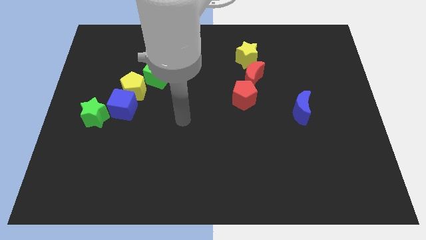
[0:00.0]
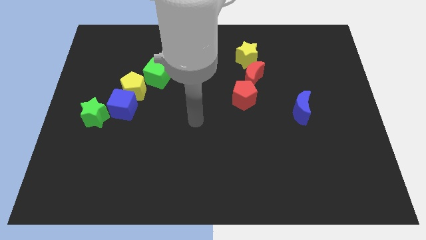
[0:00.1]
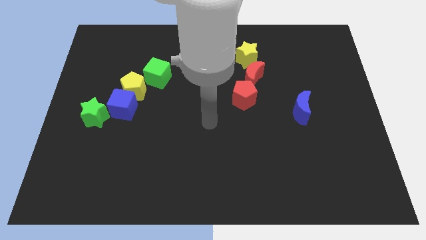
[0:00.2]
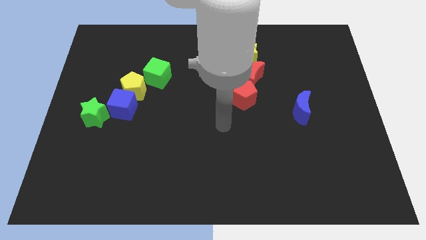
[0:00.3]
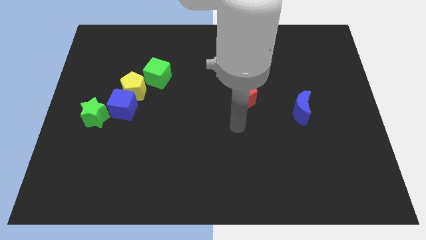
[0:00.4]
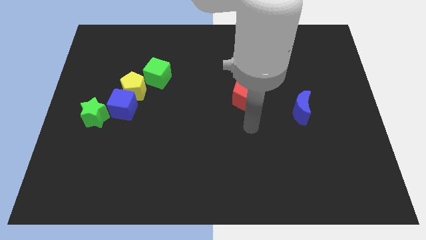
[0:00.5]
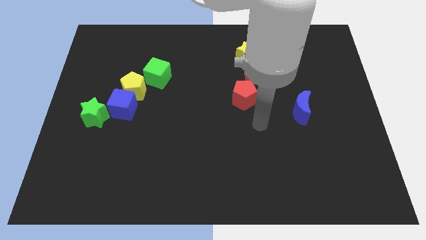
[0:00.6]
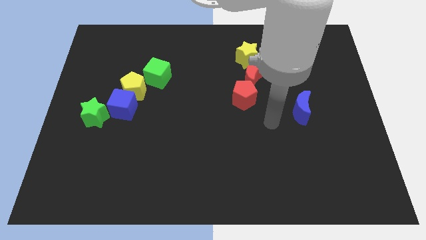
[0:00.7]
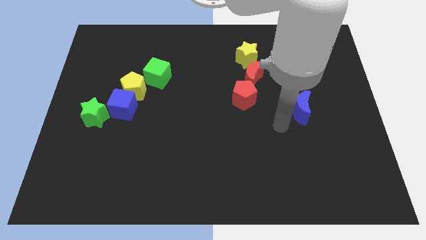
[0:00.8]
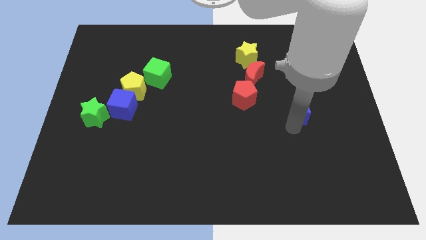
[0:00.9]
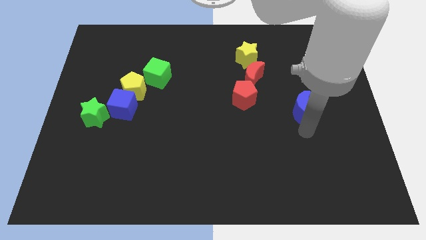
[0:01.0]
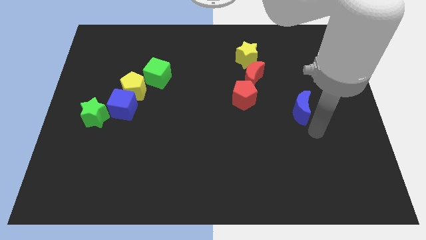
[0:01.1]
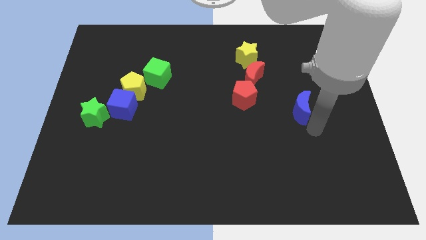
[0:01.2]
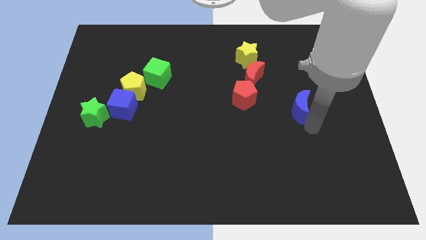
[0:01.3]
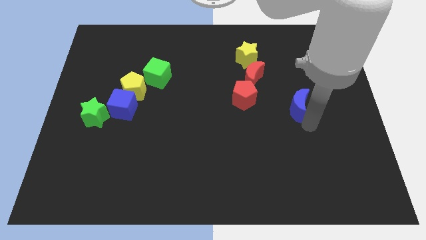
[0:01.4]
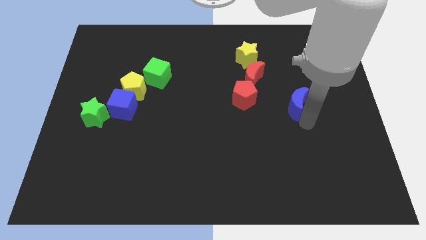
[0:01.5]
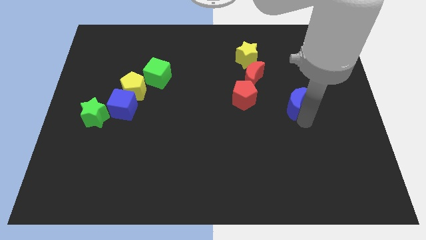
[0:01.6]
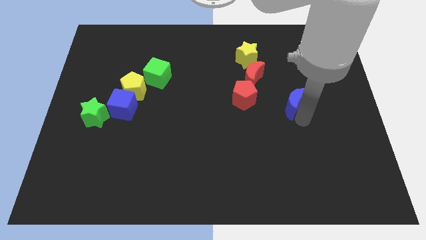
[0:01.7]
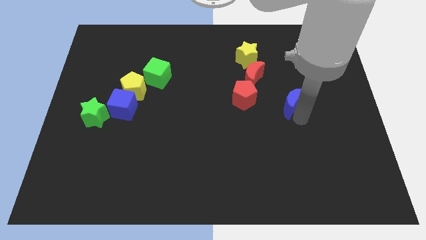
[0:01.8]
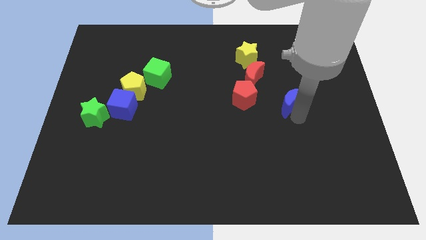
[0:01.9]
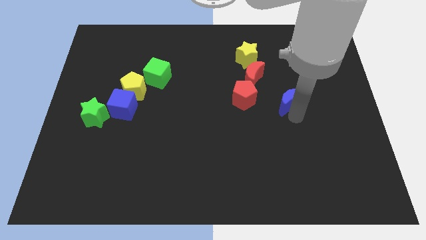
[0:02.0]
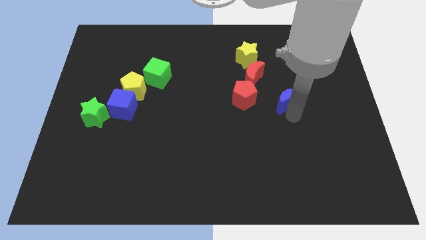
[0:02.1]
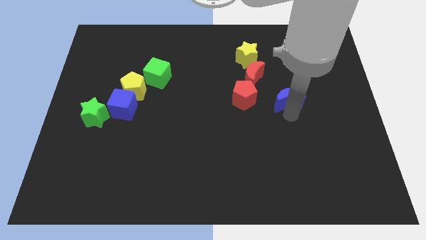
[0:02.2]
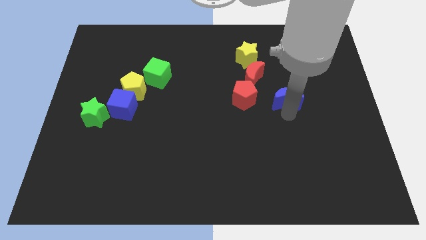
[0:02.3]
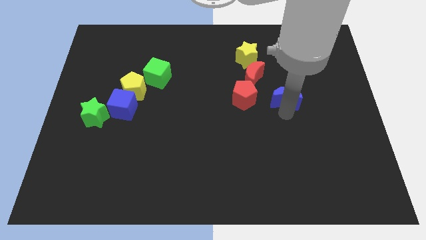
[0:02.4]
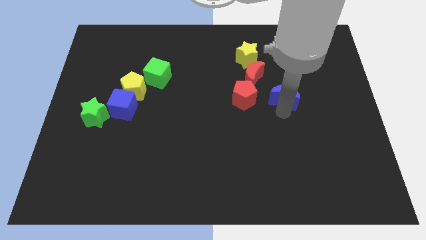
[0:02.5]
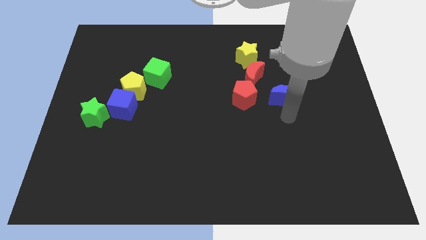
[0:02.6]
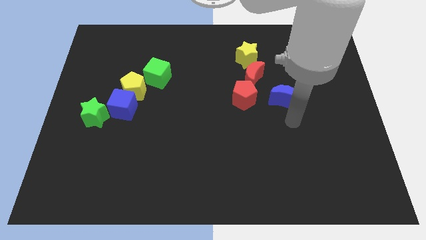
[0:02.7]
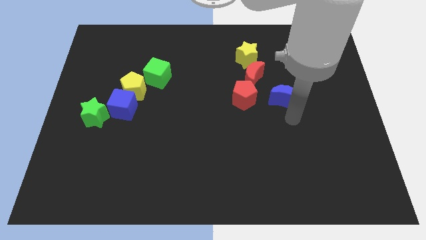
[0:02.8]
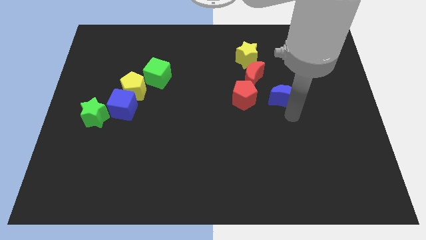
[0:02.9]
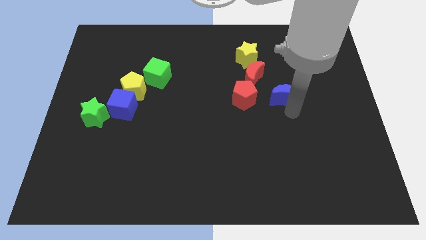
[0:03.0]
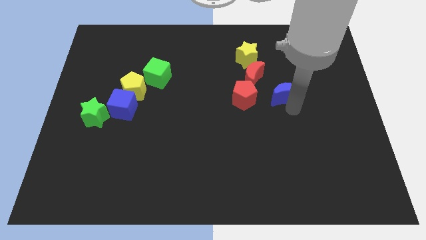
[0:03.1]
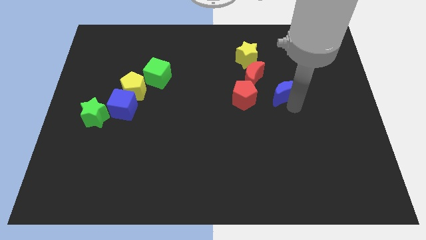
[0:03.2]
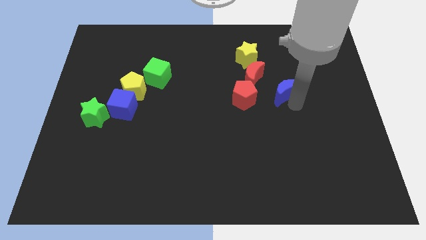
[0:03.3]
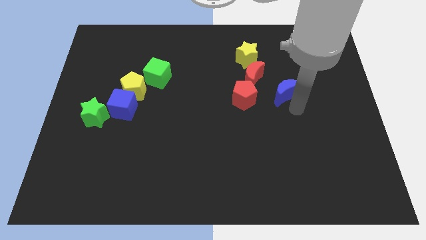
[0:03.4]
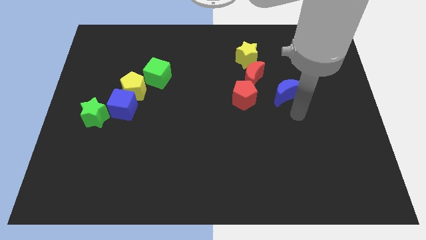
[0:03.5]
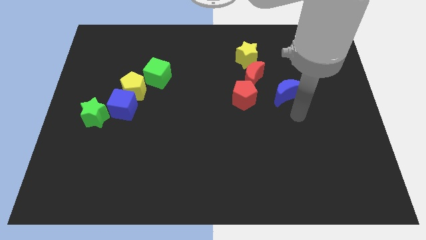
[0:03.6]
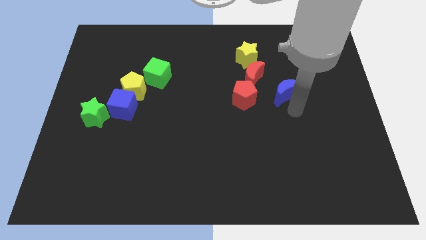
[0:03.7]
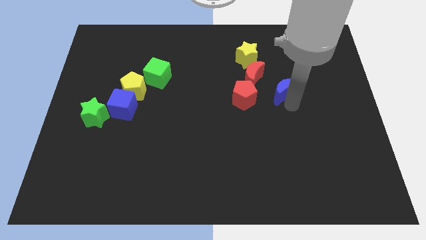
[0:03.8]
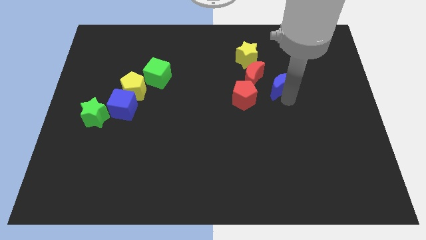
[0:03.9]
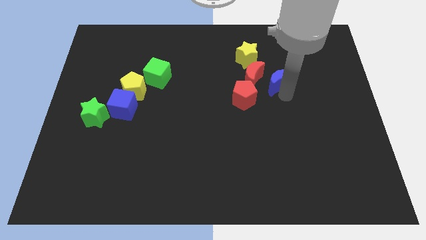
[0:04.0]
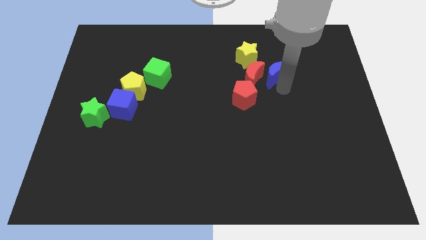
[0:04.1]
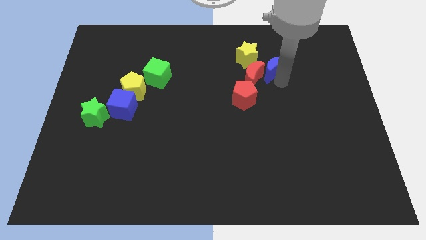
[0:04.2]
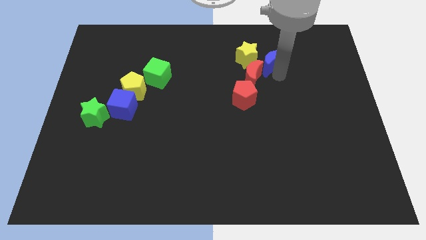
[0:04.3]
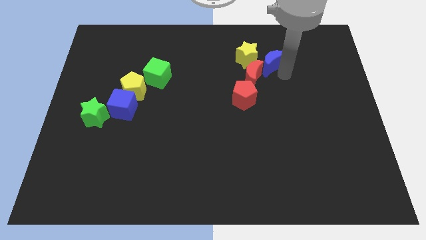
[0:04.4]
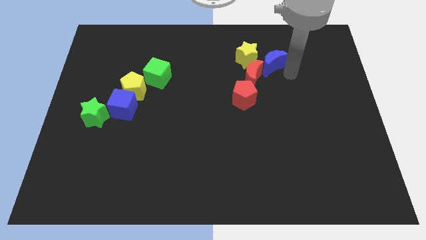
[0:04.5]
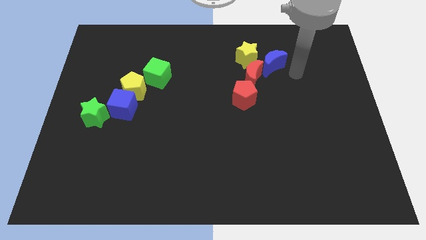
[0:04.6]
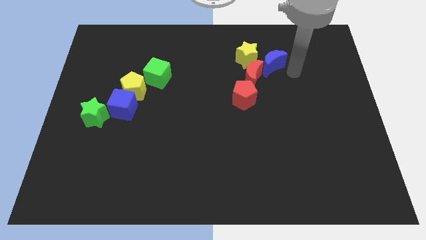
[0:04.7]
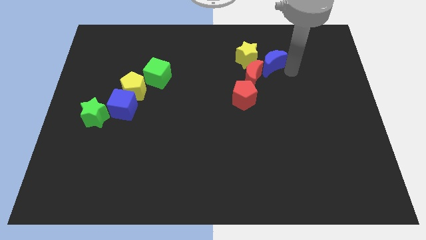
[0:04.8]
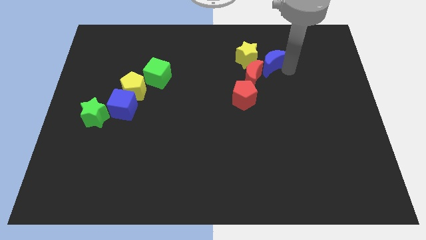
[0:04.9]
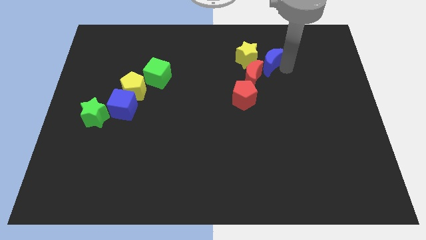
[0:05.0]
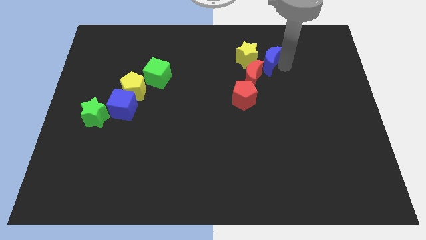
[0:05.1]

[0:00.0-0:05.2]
slide the blue moon next to the yellow star

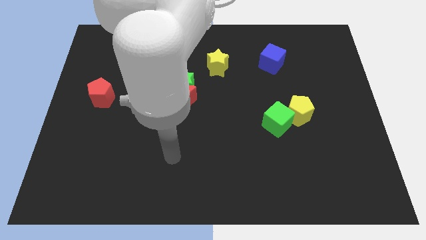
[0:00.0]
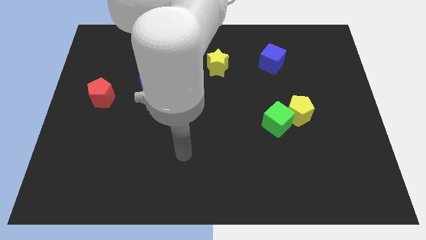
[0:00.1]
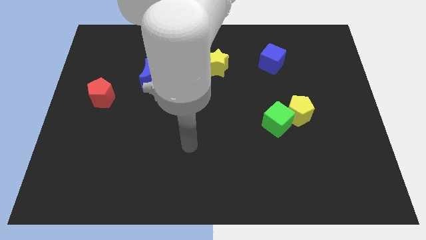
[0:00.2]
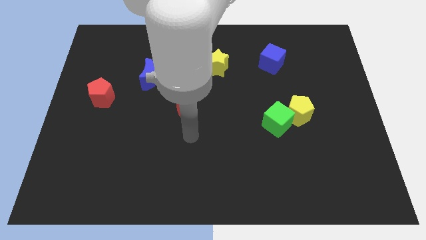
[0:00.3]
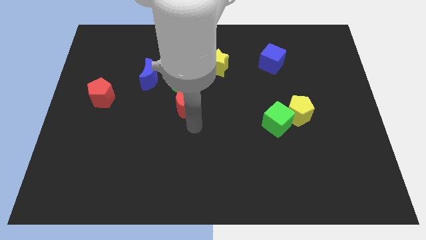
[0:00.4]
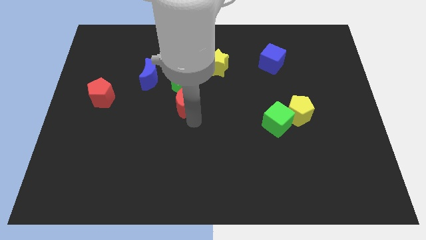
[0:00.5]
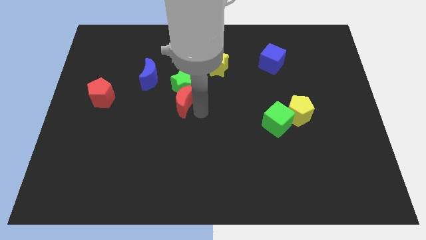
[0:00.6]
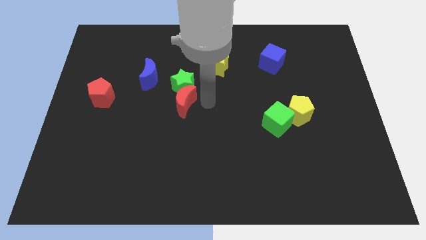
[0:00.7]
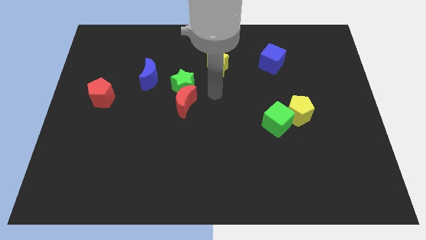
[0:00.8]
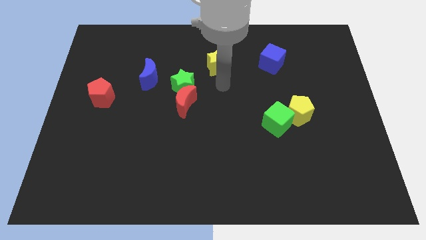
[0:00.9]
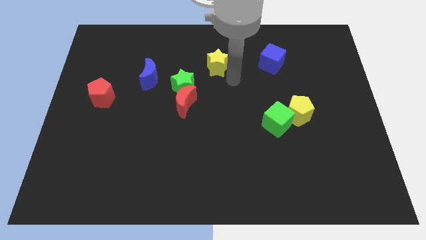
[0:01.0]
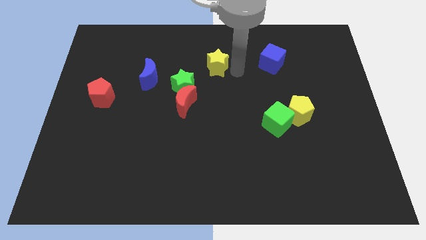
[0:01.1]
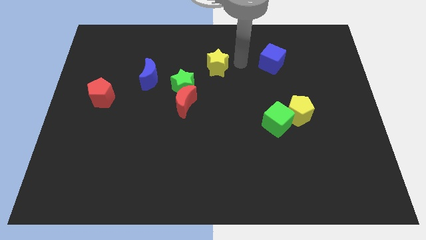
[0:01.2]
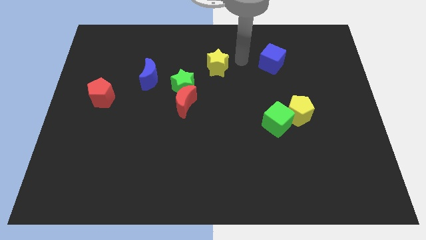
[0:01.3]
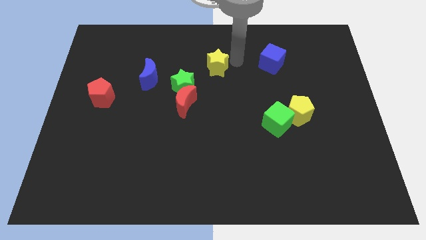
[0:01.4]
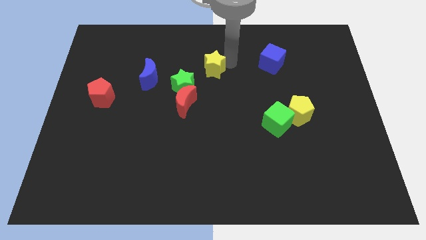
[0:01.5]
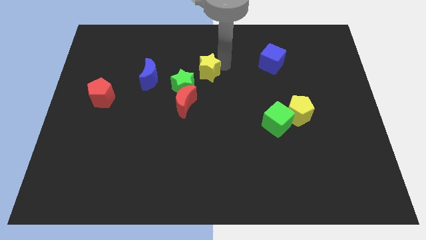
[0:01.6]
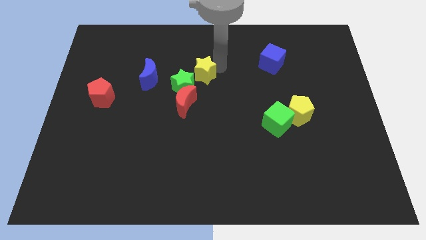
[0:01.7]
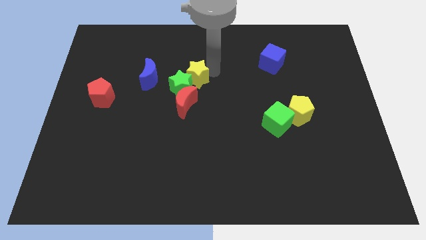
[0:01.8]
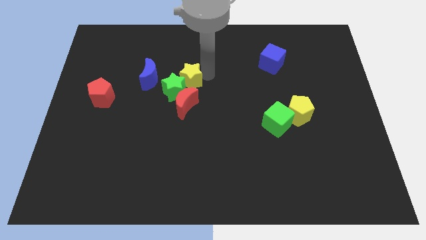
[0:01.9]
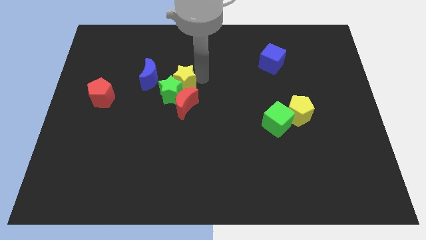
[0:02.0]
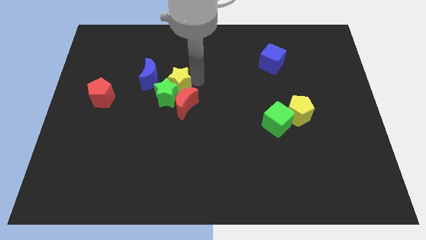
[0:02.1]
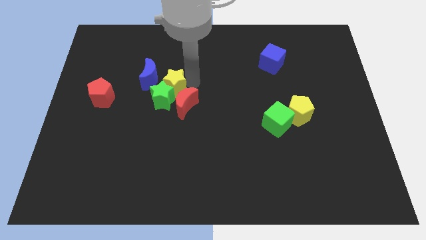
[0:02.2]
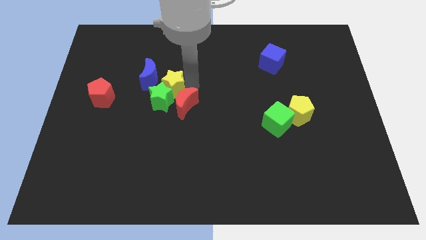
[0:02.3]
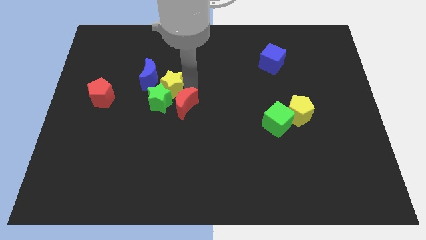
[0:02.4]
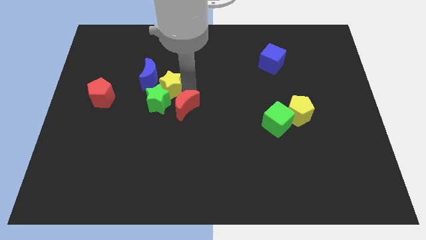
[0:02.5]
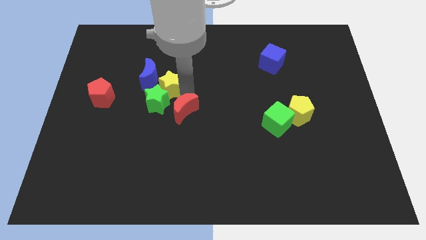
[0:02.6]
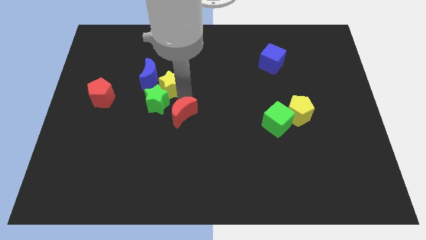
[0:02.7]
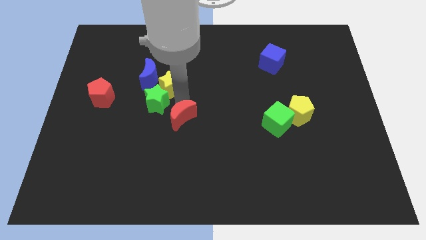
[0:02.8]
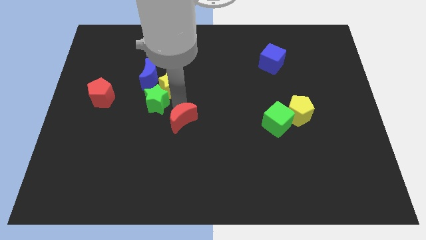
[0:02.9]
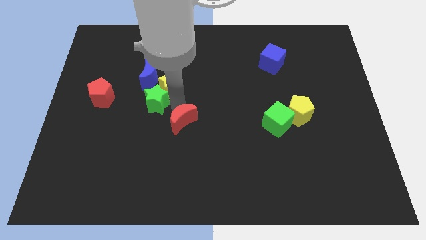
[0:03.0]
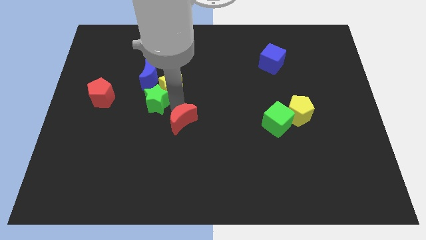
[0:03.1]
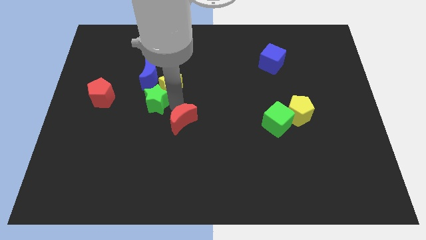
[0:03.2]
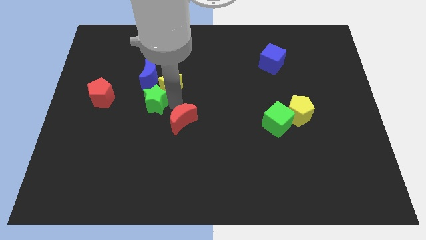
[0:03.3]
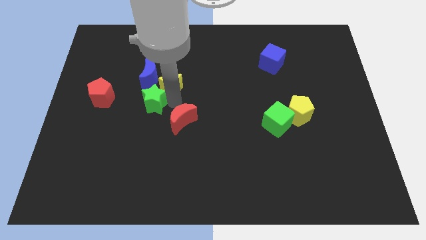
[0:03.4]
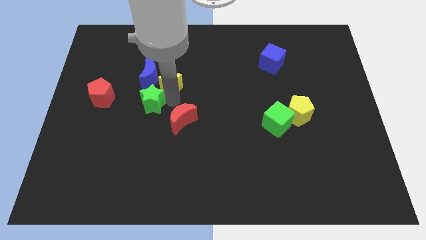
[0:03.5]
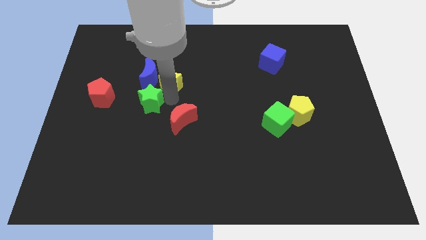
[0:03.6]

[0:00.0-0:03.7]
put the yellow star towards the blue moon
